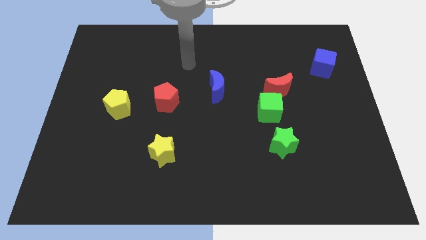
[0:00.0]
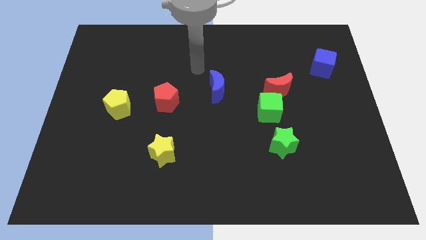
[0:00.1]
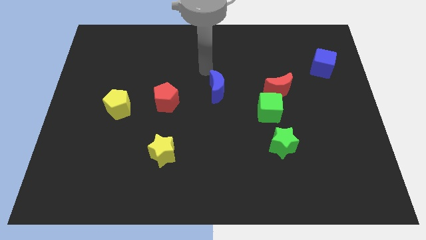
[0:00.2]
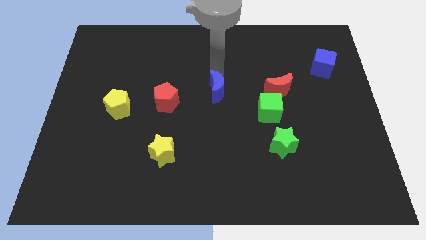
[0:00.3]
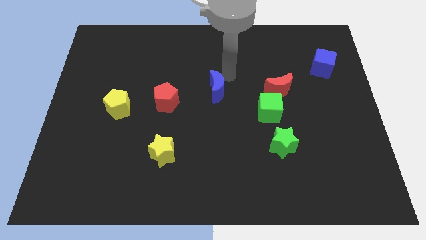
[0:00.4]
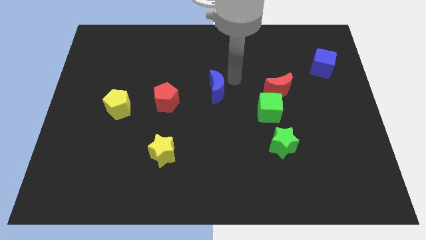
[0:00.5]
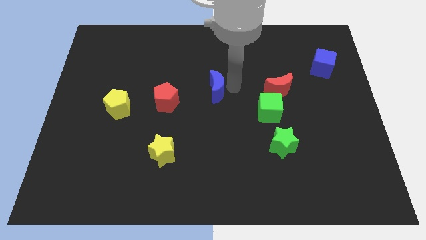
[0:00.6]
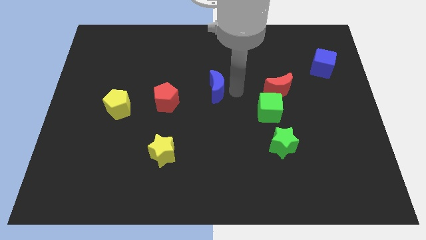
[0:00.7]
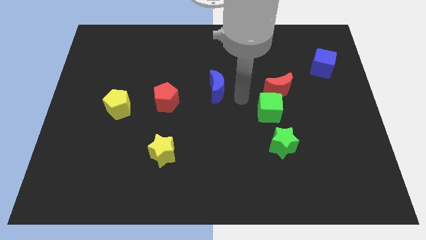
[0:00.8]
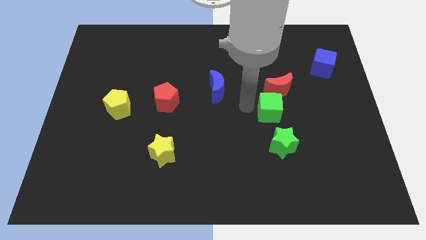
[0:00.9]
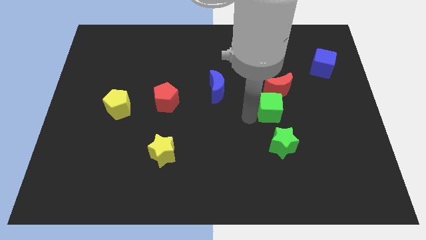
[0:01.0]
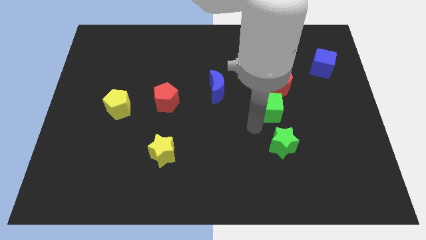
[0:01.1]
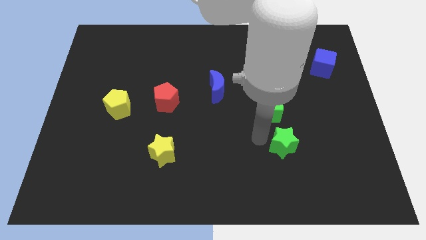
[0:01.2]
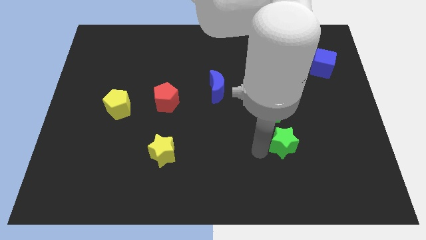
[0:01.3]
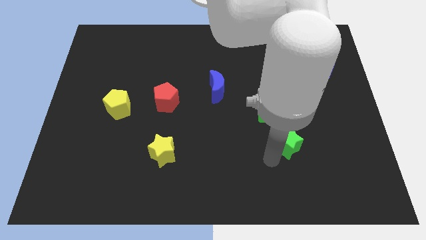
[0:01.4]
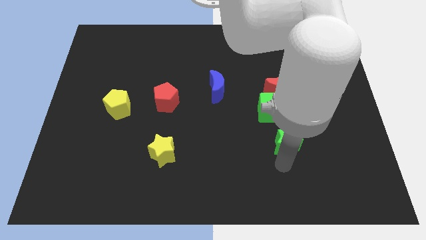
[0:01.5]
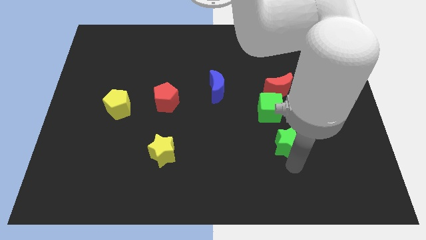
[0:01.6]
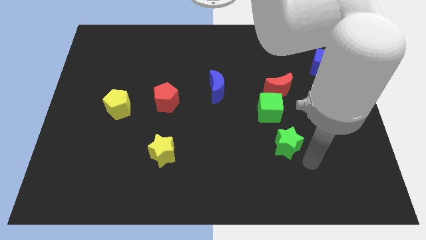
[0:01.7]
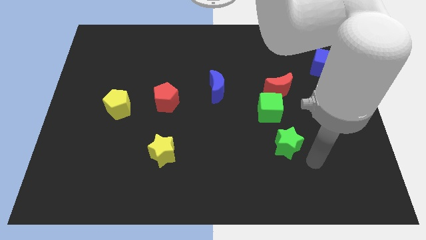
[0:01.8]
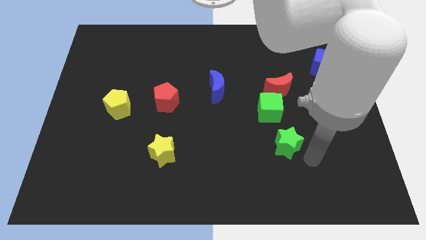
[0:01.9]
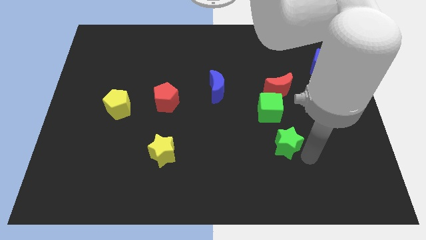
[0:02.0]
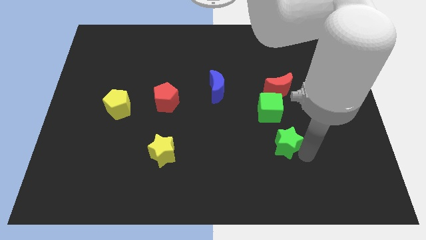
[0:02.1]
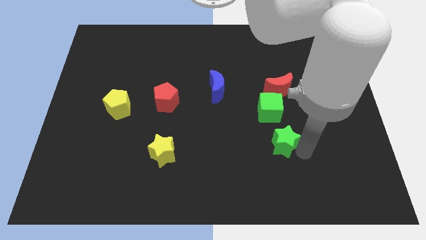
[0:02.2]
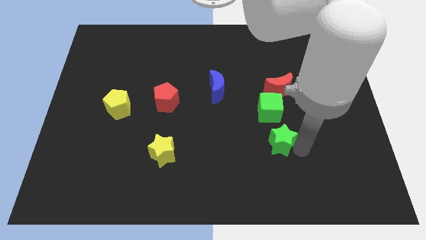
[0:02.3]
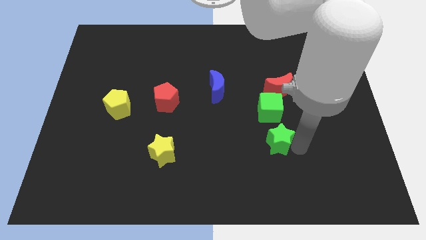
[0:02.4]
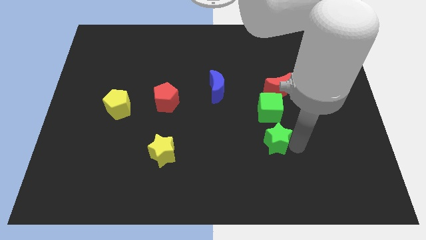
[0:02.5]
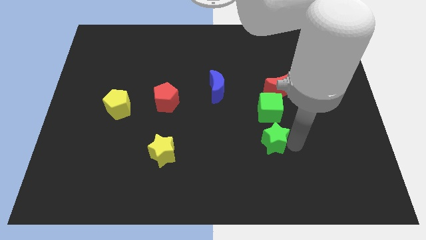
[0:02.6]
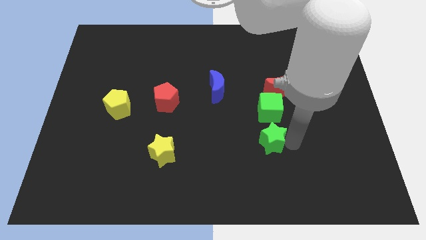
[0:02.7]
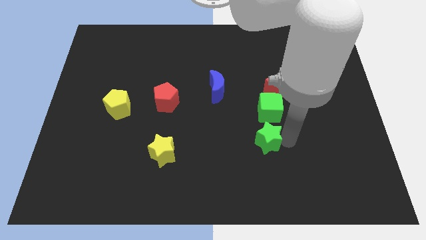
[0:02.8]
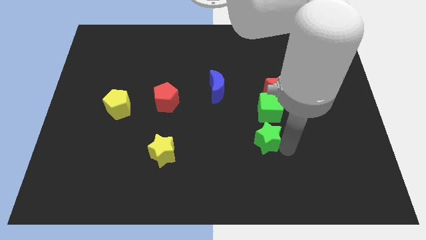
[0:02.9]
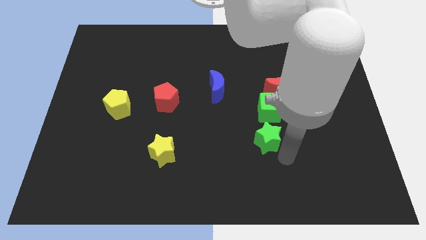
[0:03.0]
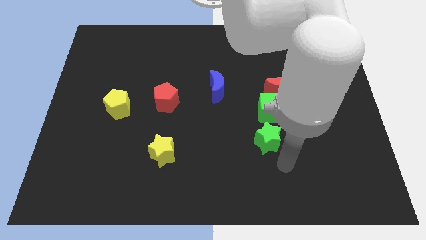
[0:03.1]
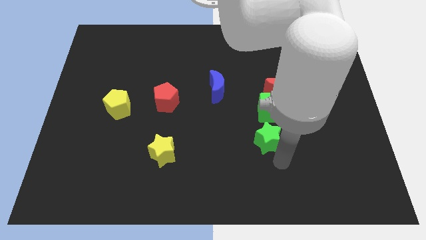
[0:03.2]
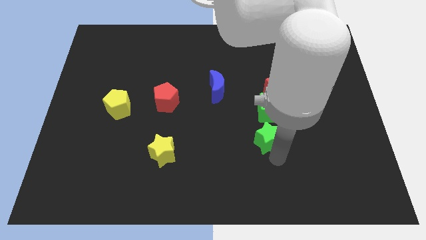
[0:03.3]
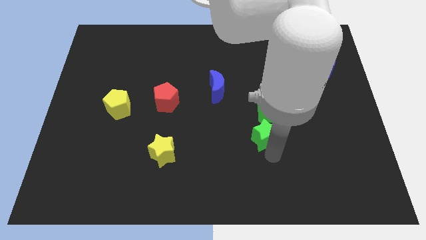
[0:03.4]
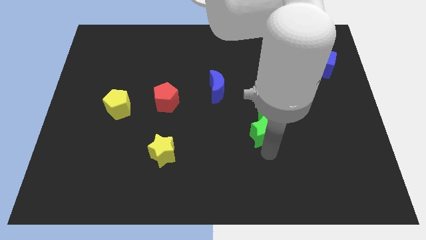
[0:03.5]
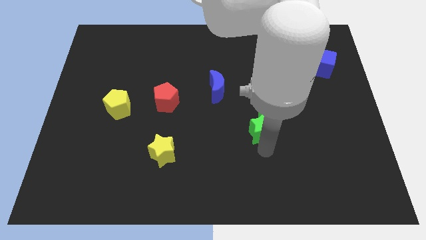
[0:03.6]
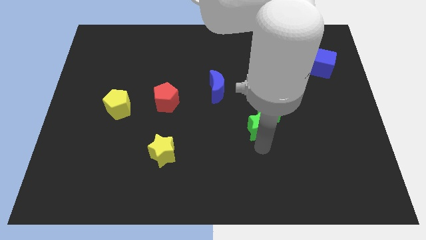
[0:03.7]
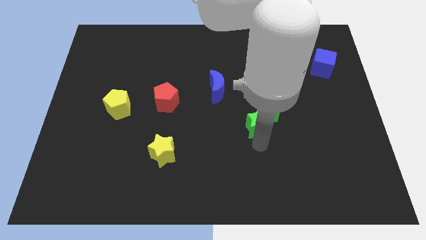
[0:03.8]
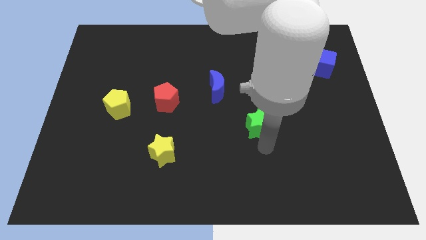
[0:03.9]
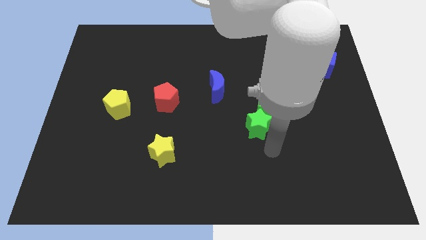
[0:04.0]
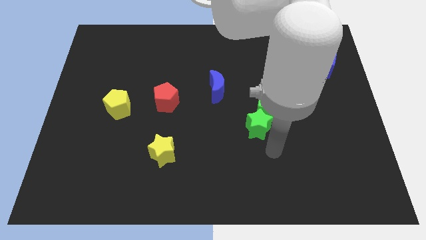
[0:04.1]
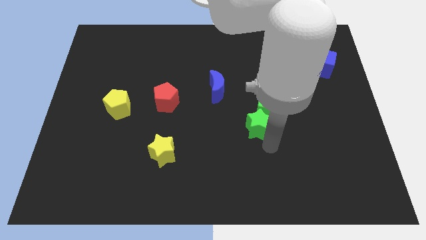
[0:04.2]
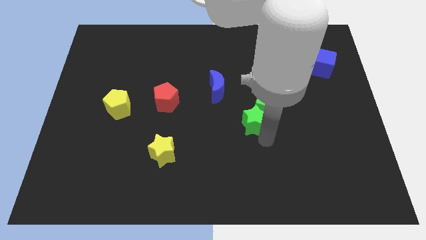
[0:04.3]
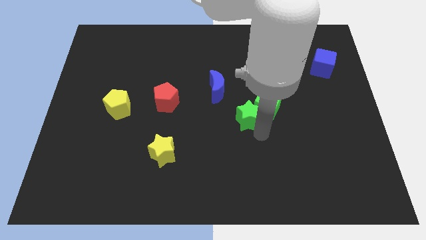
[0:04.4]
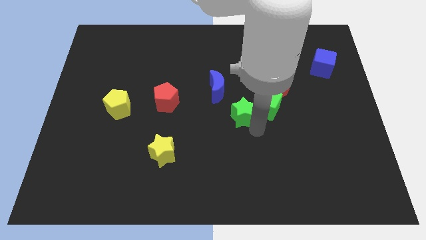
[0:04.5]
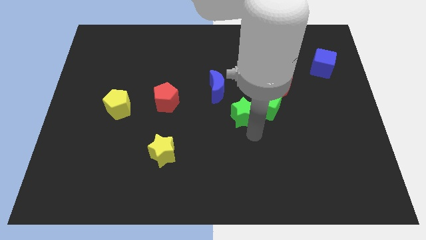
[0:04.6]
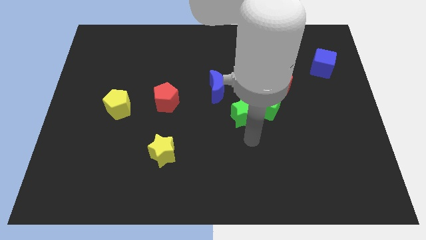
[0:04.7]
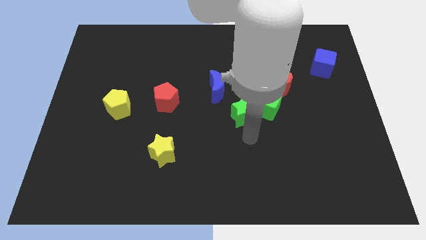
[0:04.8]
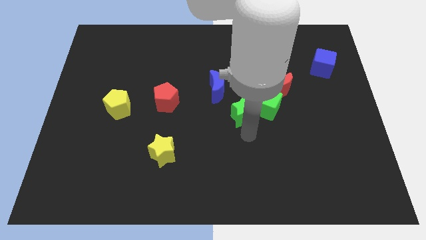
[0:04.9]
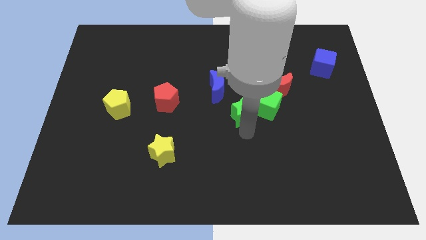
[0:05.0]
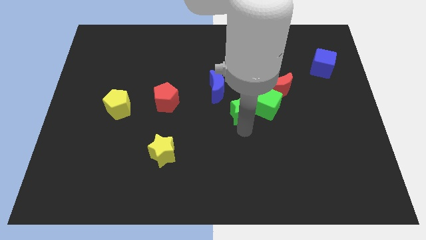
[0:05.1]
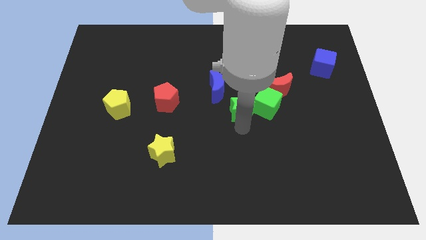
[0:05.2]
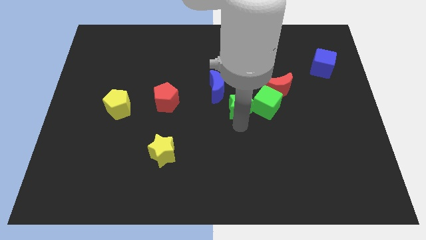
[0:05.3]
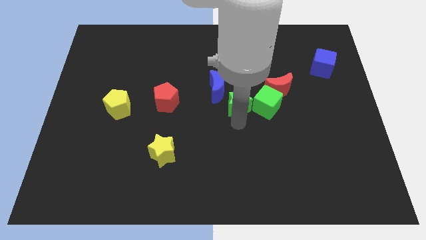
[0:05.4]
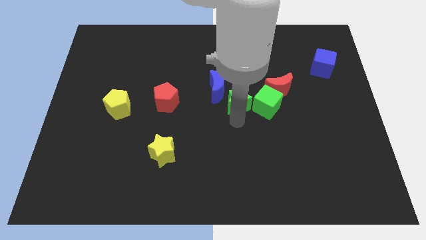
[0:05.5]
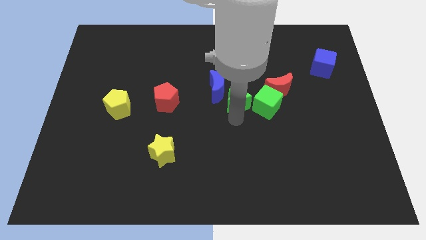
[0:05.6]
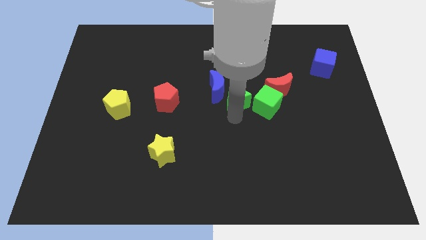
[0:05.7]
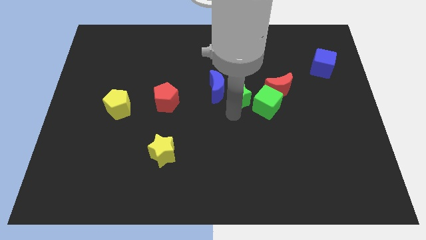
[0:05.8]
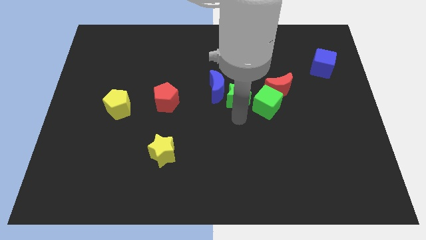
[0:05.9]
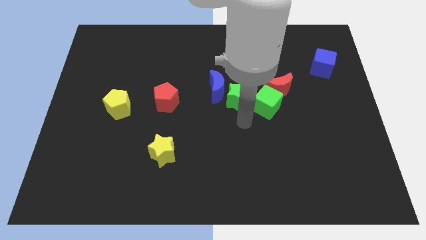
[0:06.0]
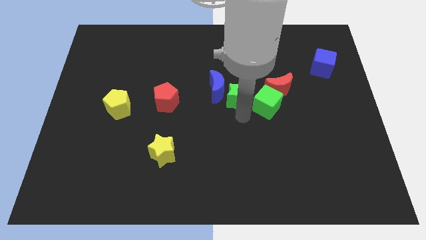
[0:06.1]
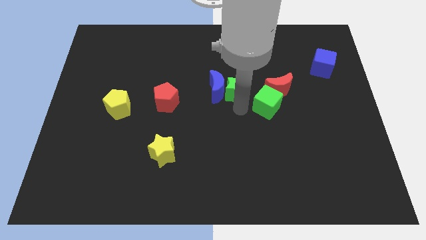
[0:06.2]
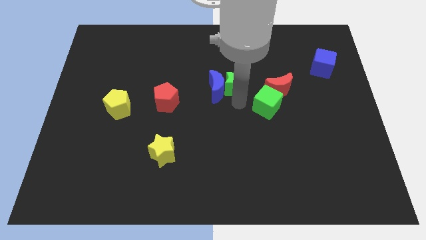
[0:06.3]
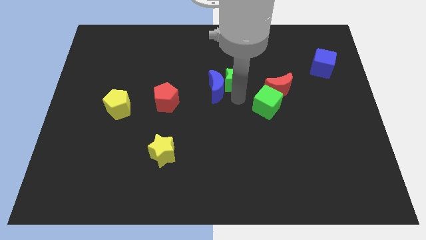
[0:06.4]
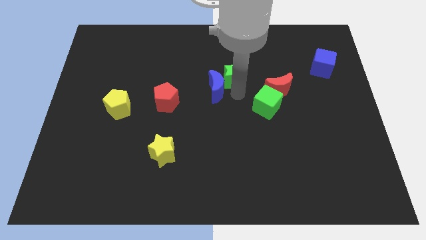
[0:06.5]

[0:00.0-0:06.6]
slide the green star to the top of the blue moon
